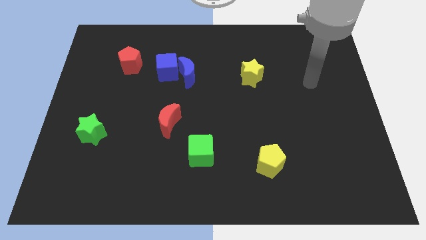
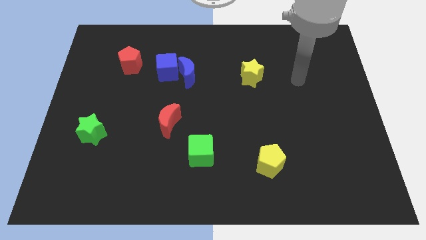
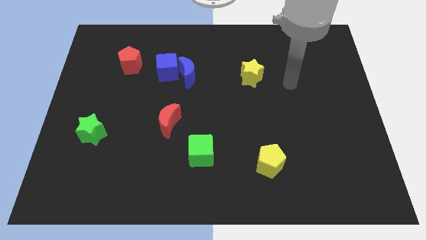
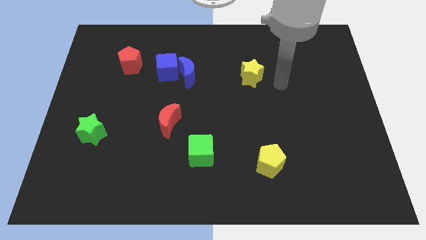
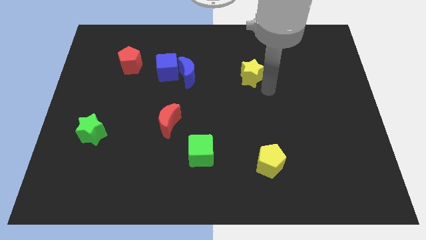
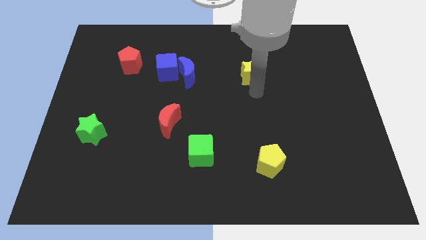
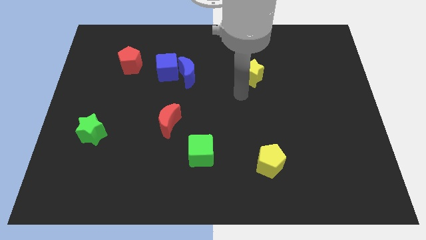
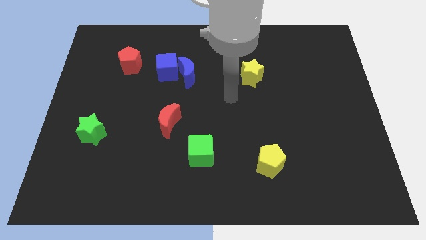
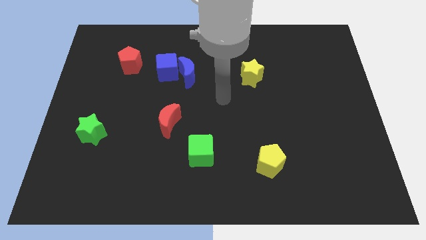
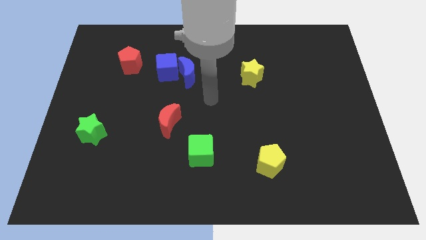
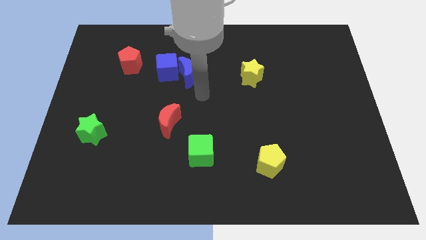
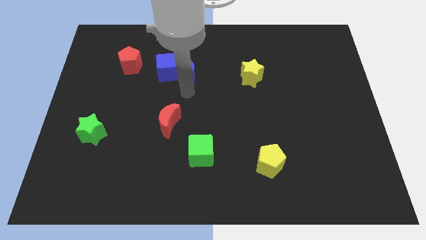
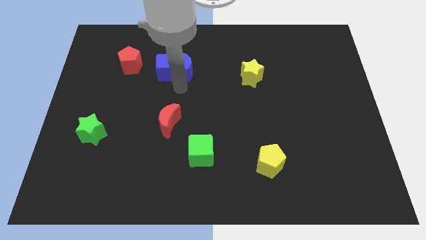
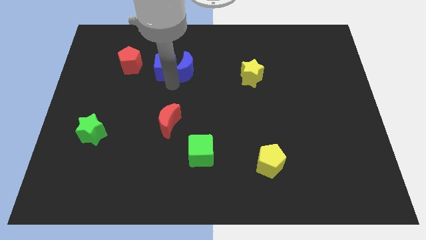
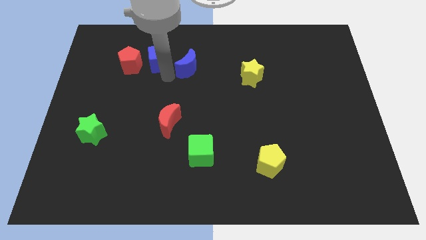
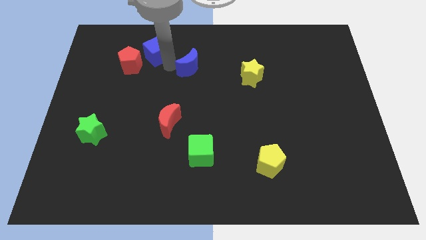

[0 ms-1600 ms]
pull the blue moon apart from the blue cube

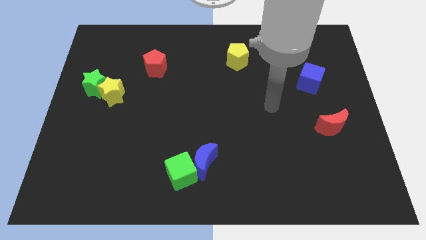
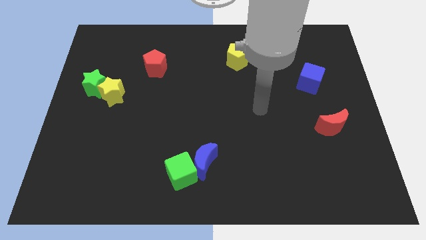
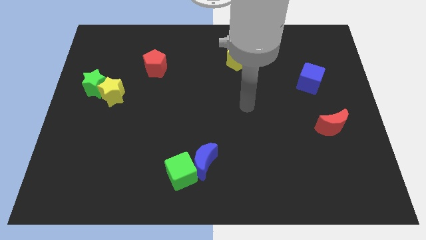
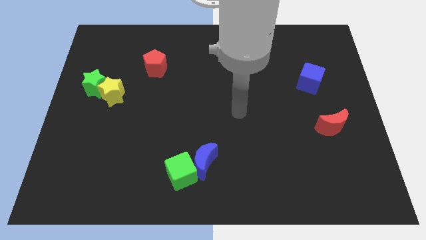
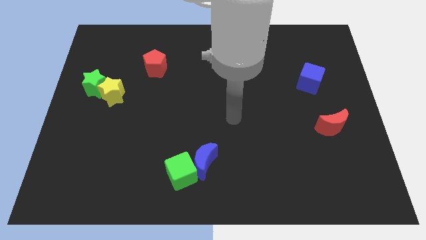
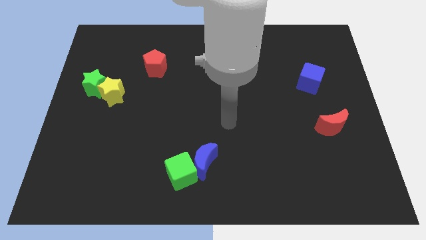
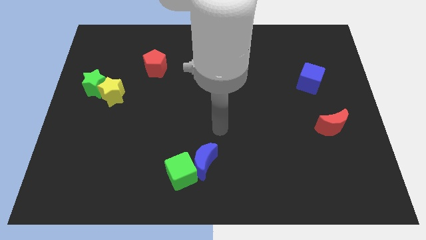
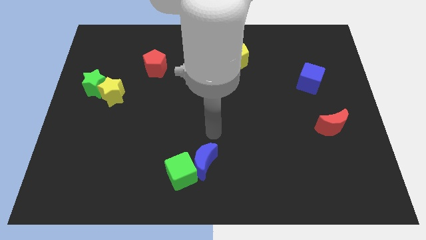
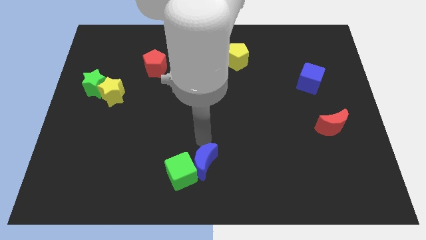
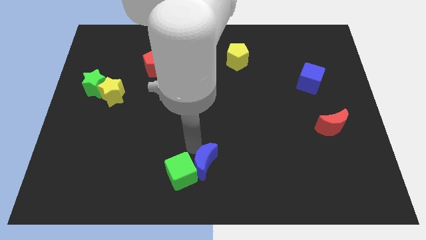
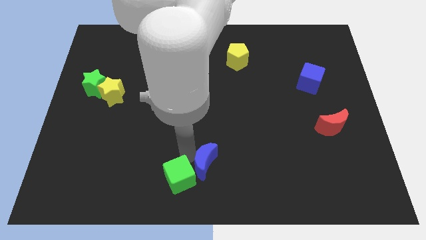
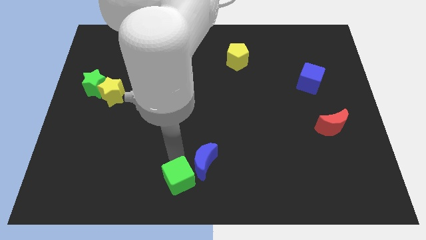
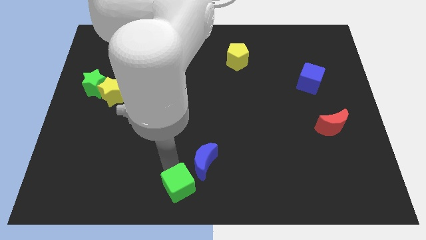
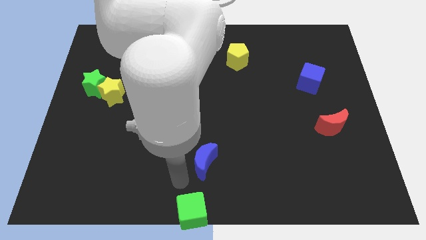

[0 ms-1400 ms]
separate the blue moon from the green cube

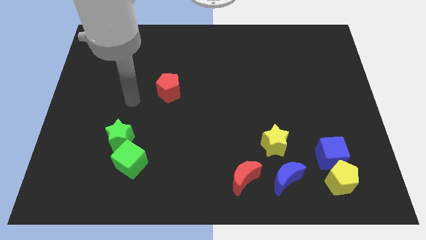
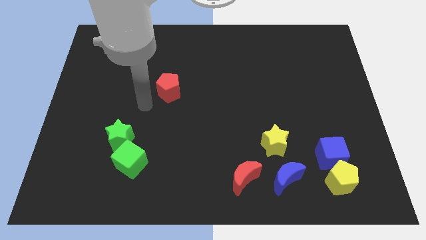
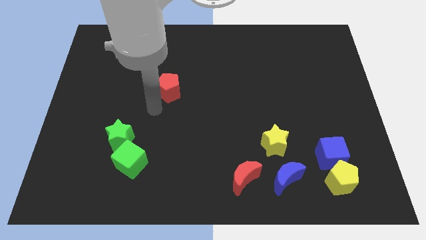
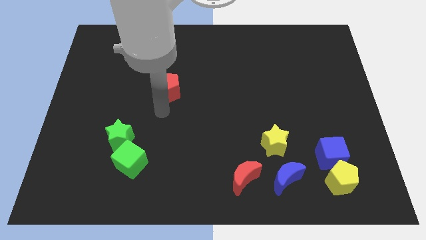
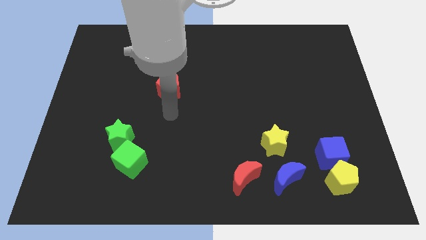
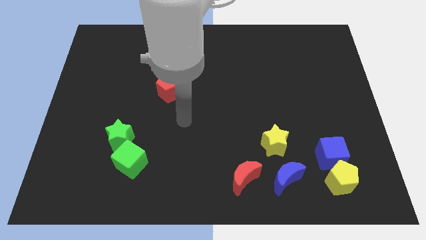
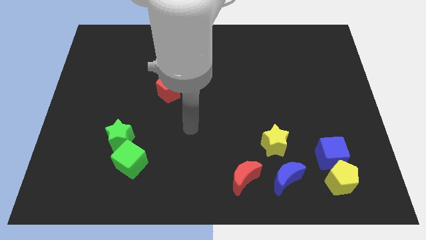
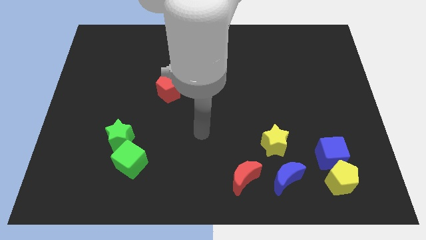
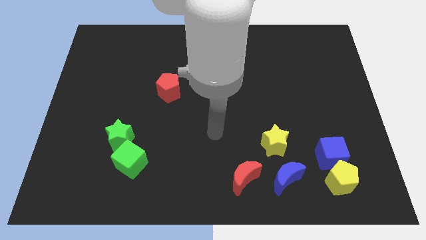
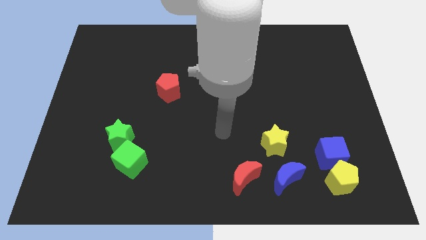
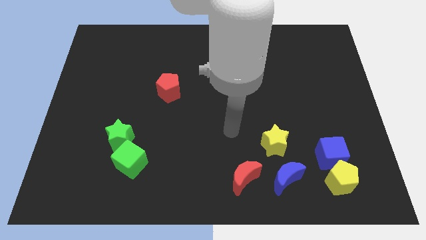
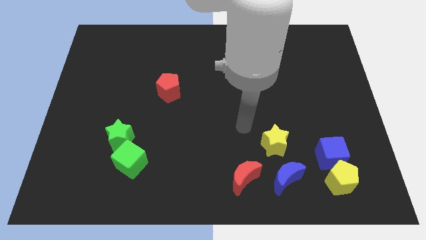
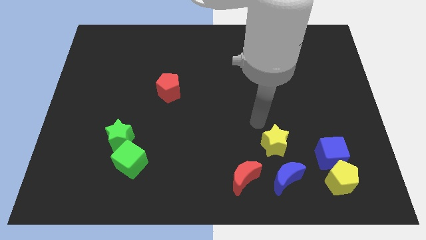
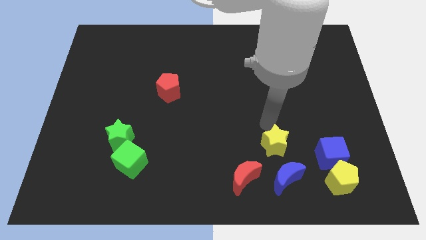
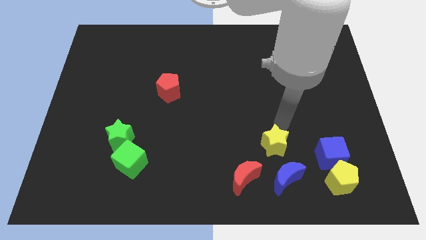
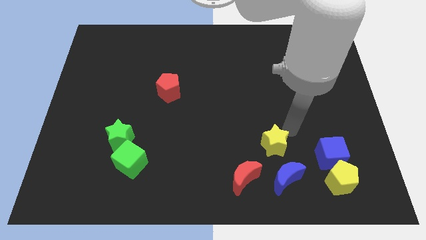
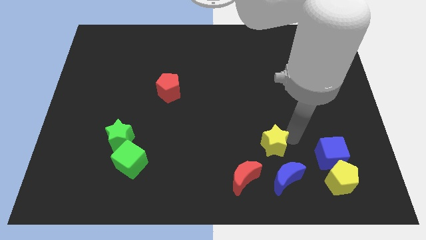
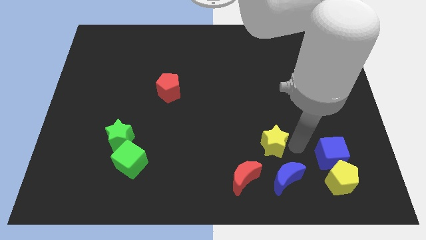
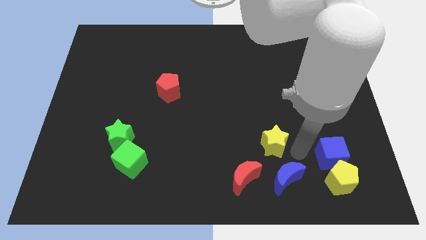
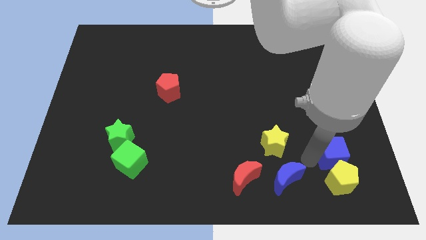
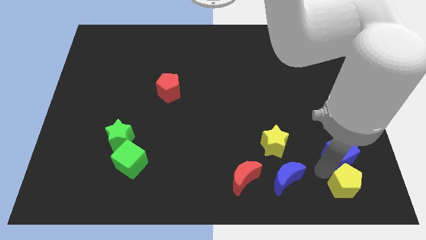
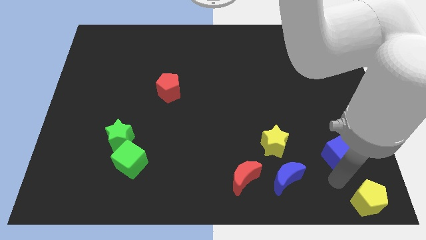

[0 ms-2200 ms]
pull the blue cube apart from the yellow pentagon

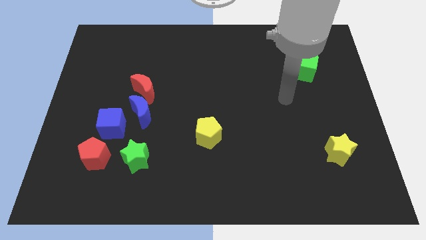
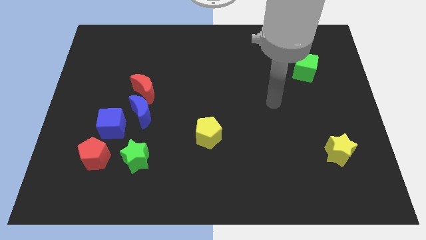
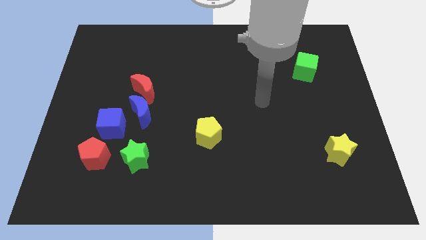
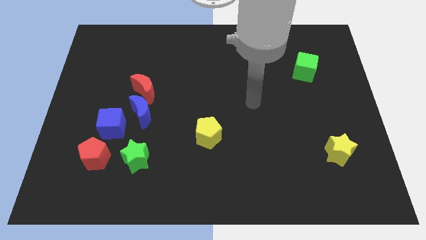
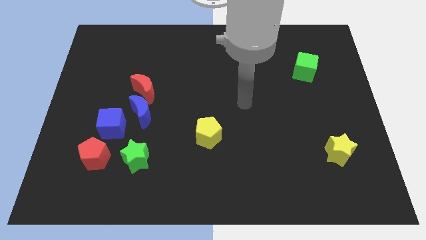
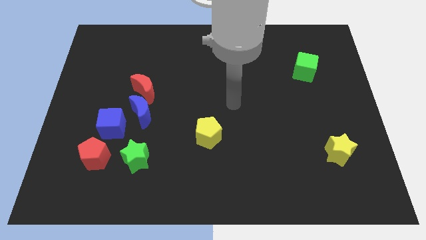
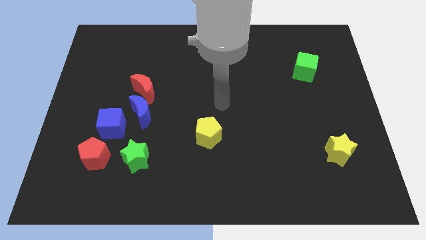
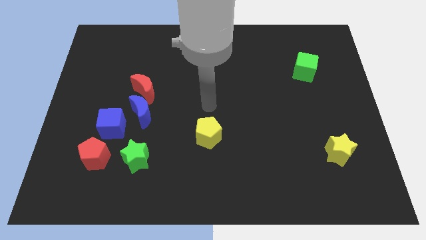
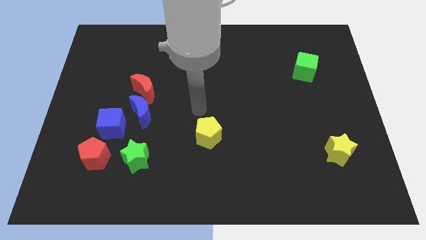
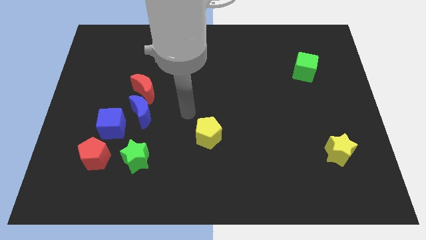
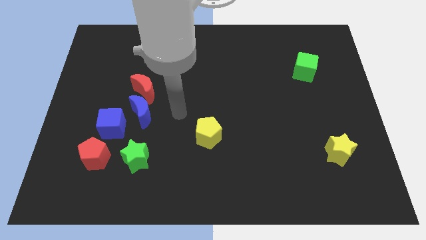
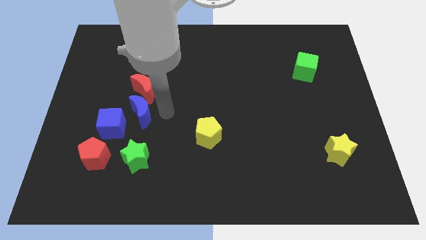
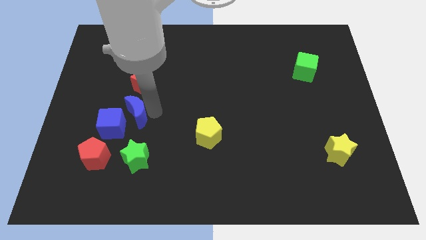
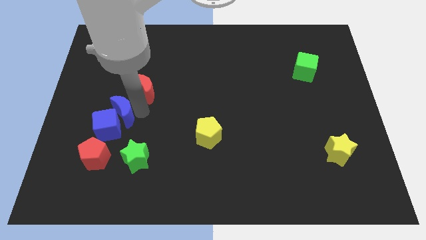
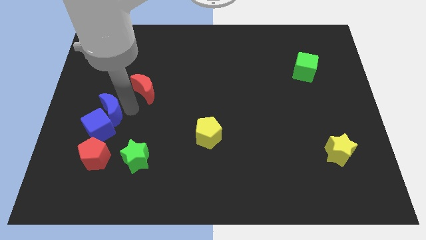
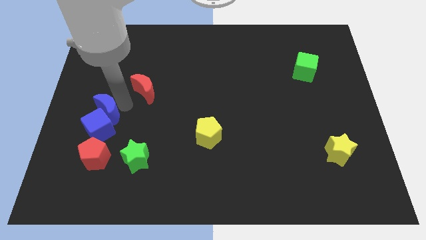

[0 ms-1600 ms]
separate the red moon from the blue moon

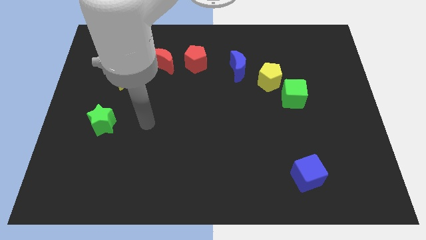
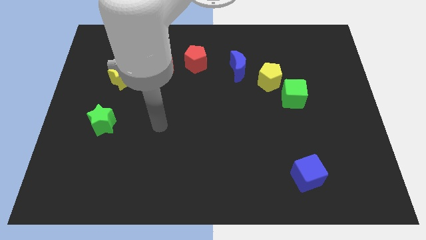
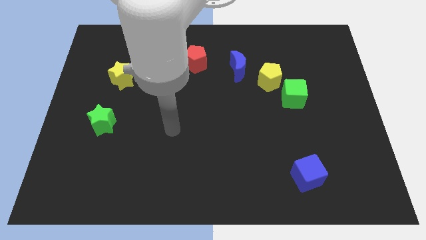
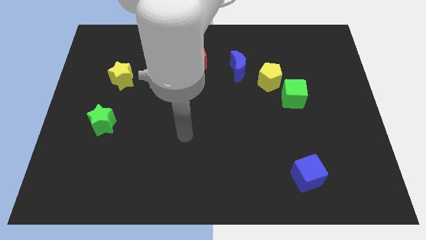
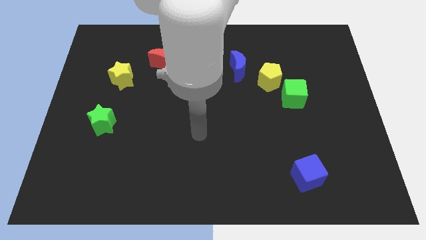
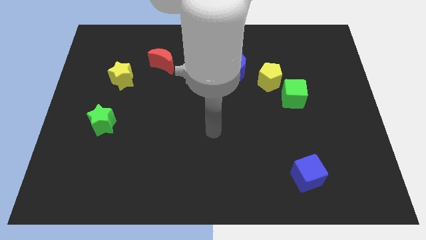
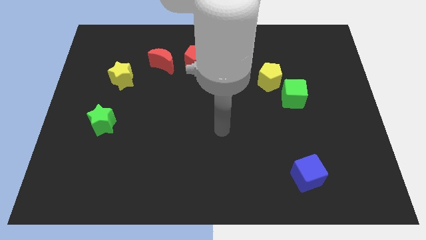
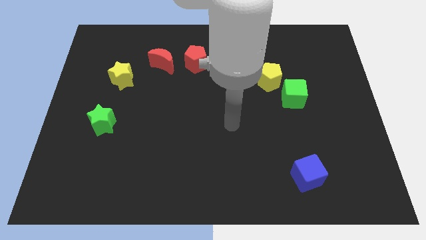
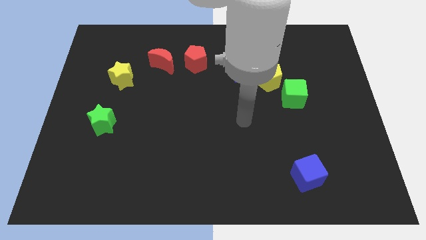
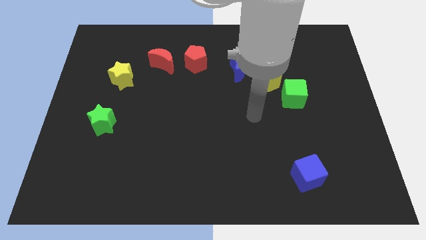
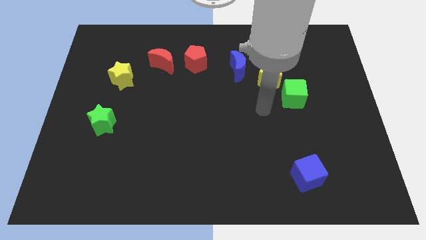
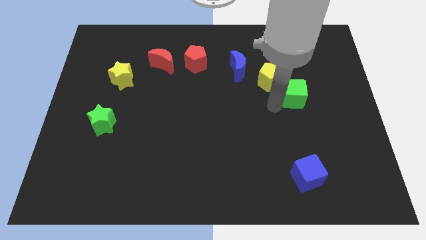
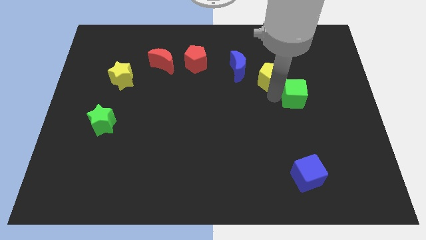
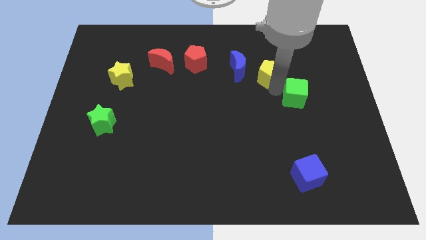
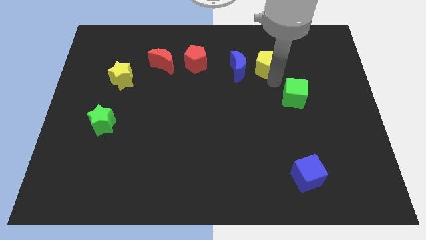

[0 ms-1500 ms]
move the green cube away from the yellow pentagon

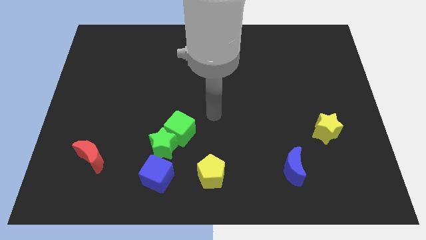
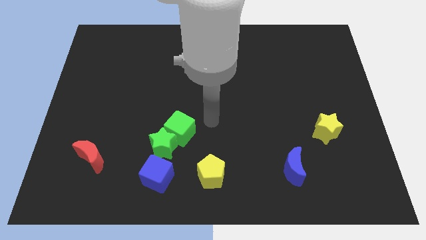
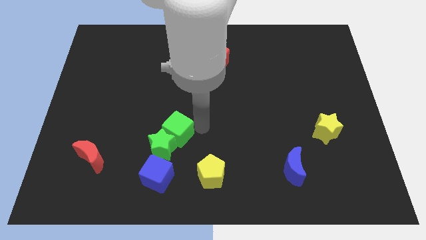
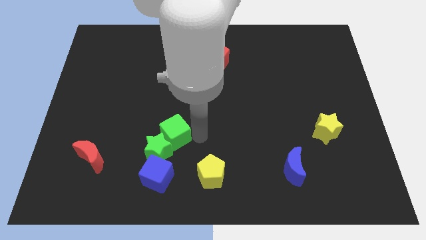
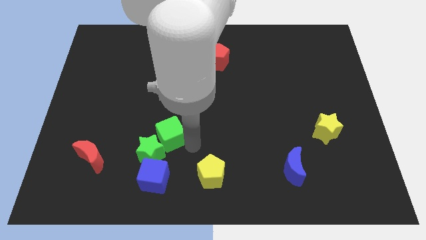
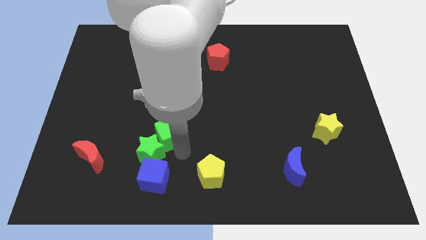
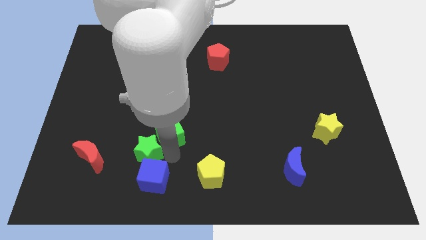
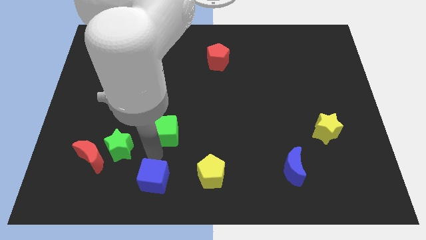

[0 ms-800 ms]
separate the green cube from the green star

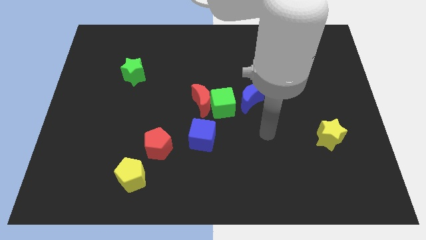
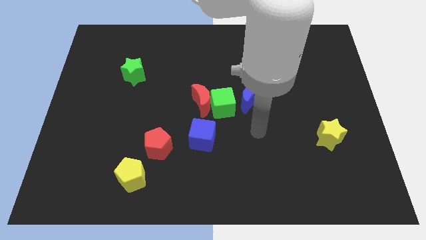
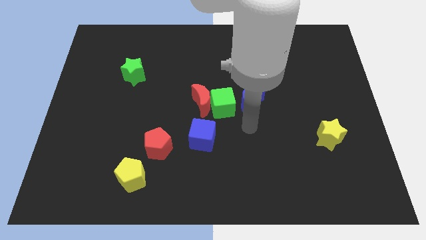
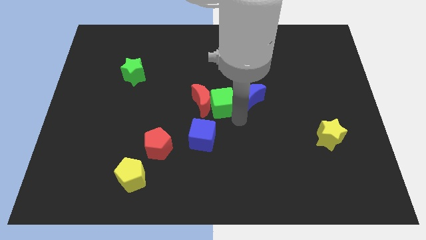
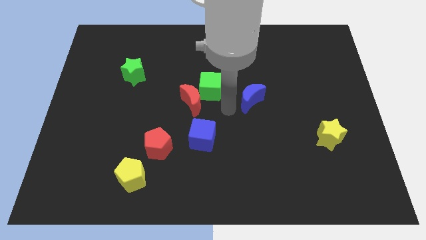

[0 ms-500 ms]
pull the blue moon apart from the green cube
